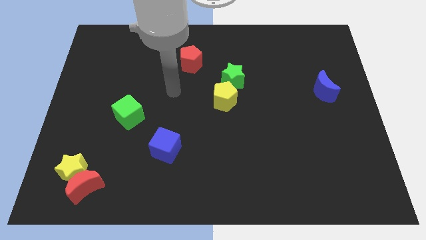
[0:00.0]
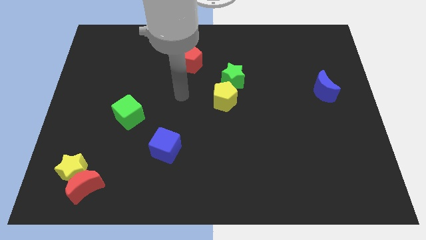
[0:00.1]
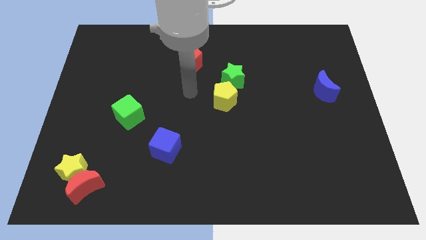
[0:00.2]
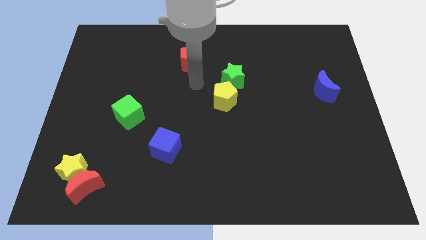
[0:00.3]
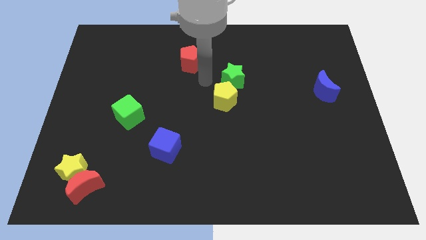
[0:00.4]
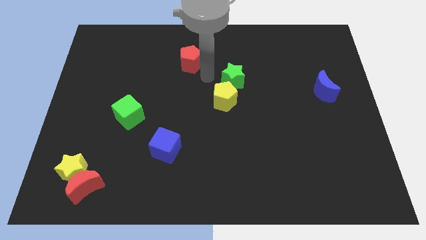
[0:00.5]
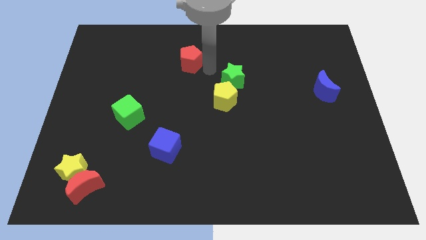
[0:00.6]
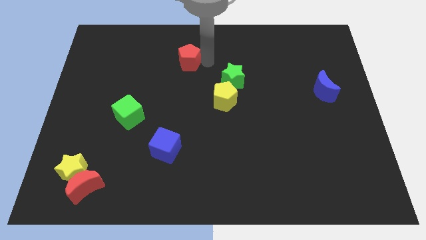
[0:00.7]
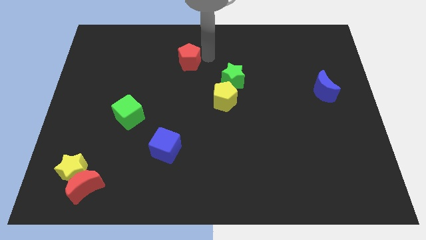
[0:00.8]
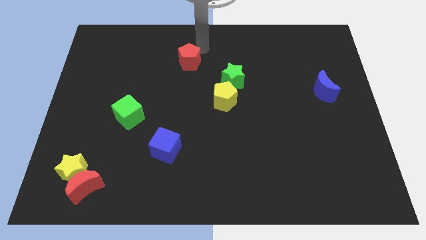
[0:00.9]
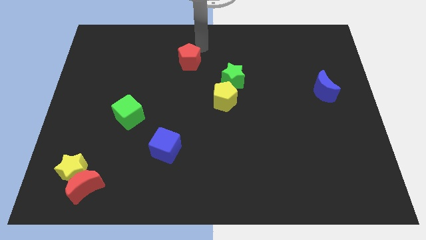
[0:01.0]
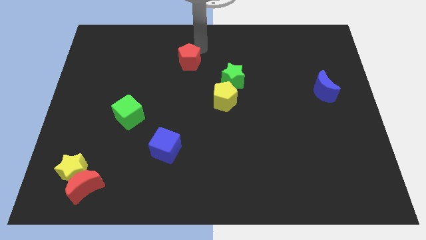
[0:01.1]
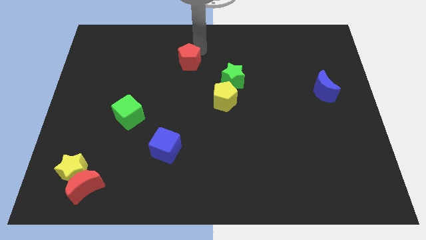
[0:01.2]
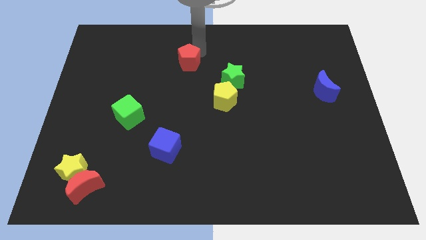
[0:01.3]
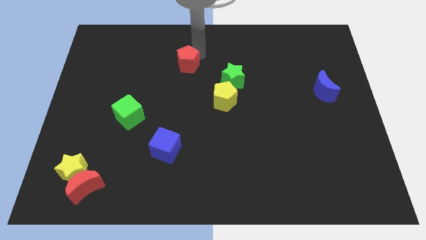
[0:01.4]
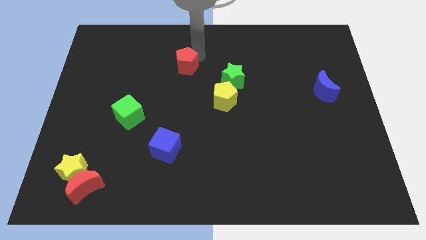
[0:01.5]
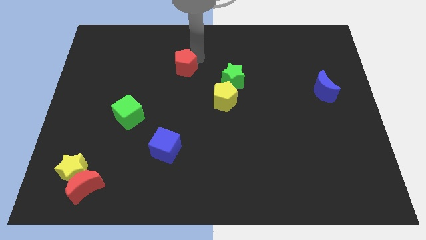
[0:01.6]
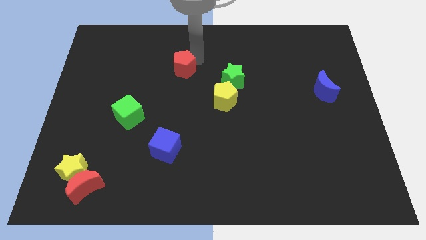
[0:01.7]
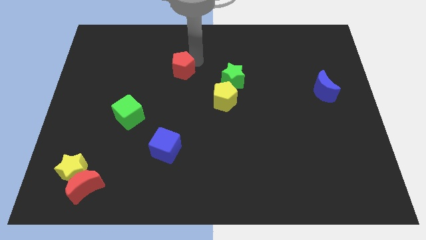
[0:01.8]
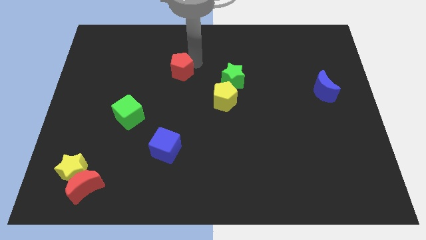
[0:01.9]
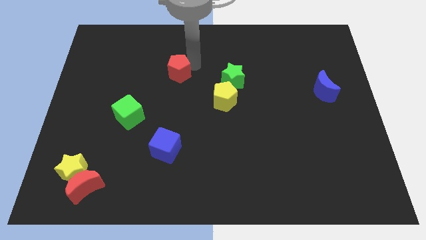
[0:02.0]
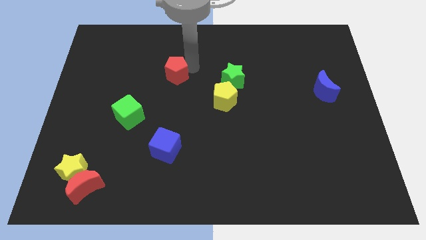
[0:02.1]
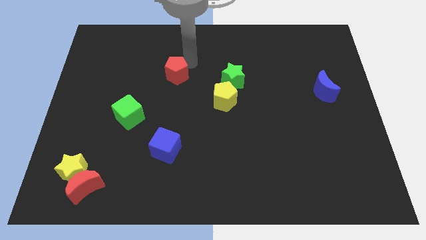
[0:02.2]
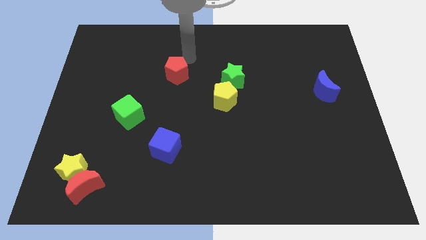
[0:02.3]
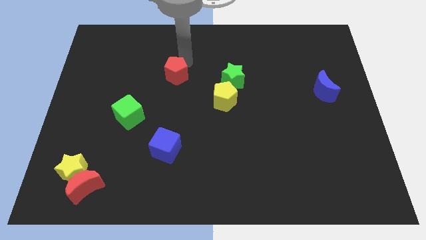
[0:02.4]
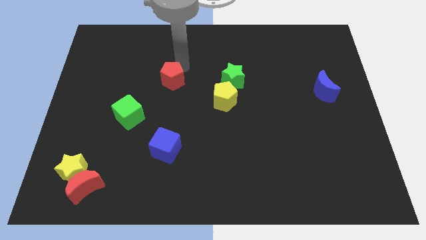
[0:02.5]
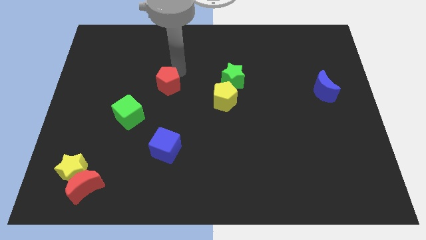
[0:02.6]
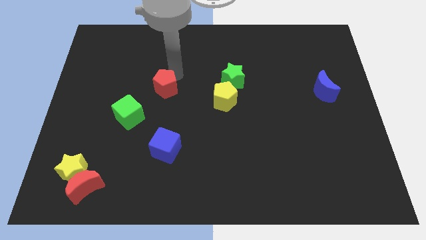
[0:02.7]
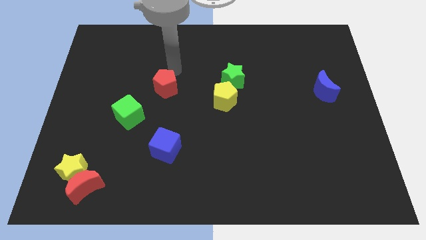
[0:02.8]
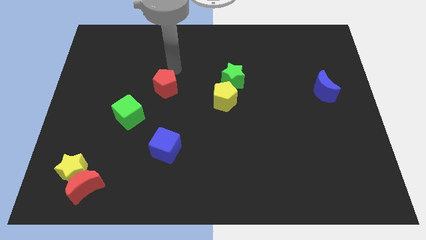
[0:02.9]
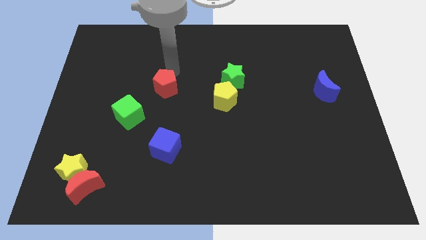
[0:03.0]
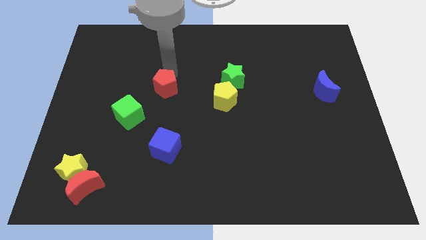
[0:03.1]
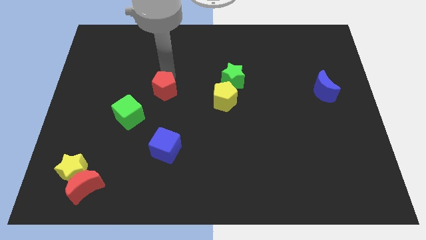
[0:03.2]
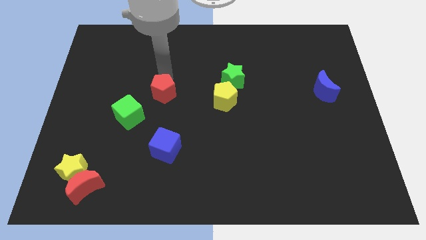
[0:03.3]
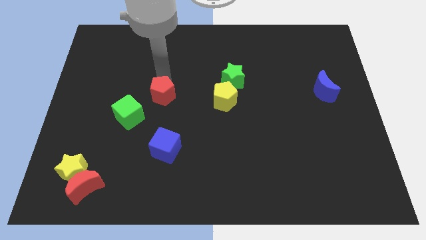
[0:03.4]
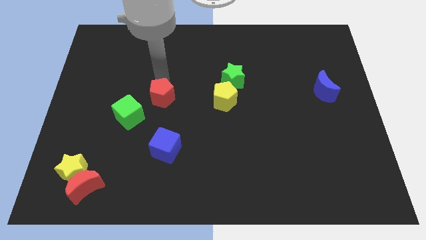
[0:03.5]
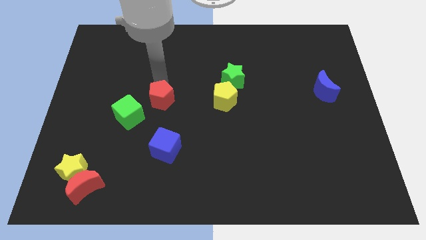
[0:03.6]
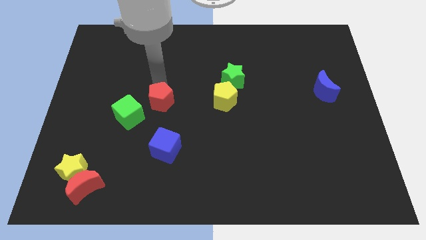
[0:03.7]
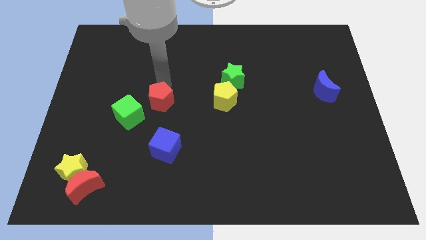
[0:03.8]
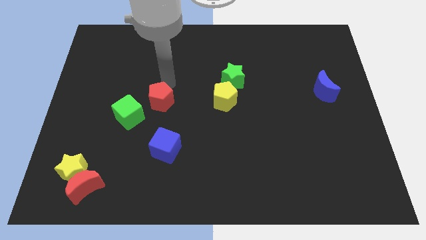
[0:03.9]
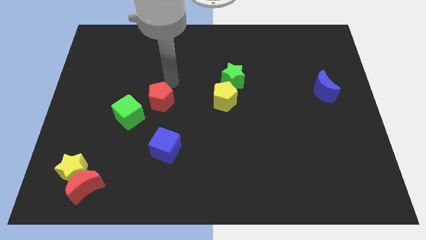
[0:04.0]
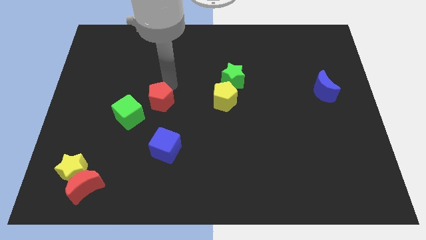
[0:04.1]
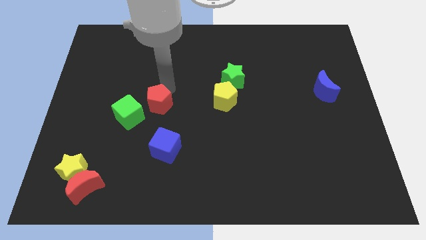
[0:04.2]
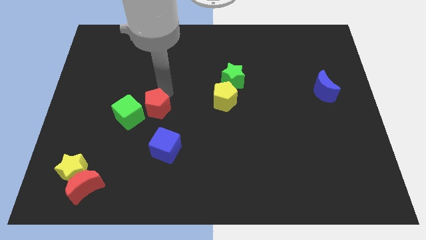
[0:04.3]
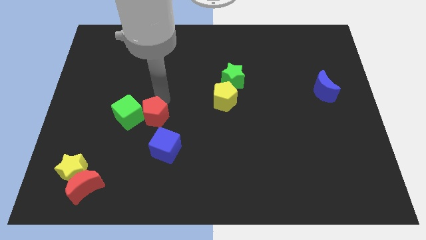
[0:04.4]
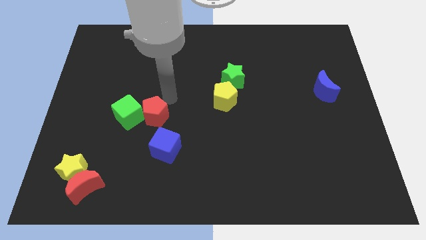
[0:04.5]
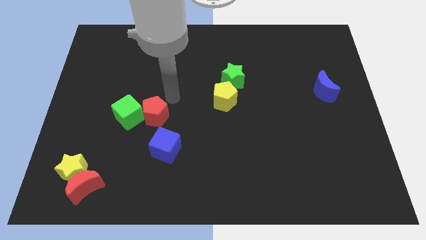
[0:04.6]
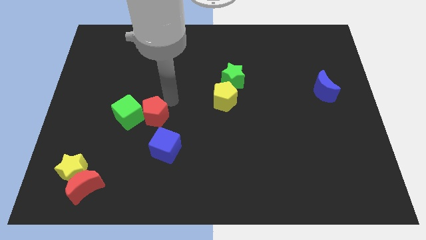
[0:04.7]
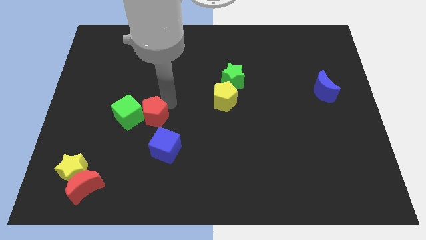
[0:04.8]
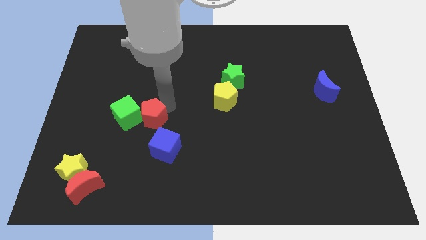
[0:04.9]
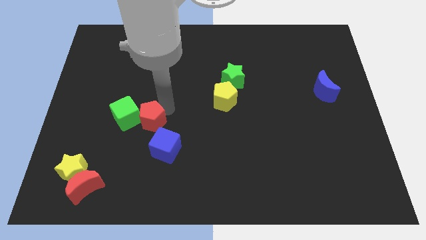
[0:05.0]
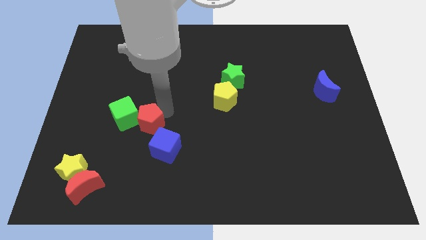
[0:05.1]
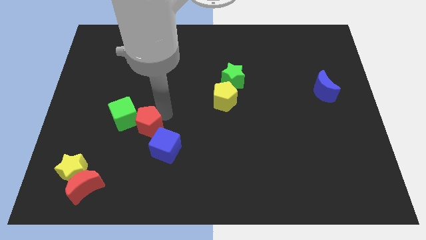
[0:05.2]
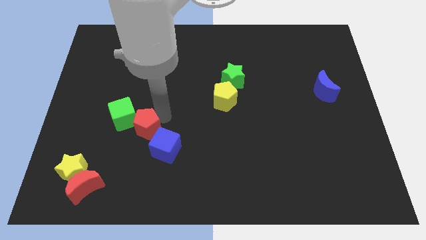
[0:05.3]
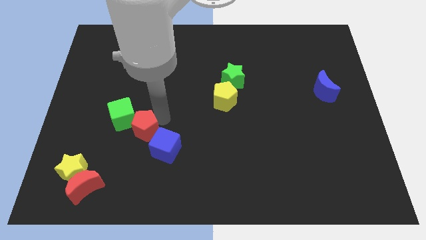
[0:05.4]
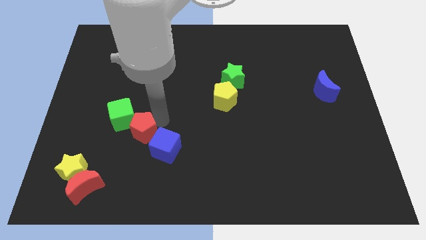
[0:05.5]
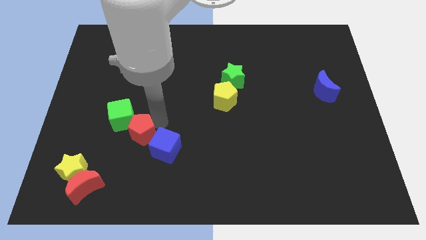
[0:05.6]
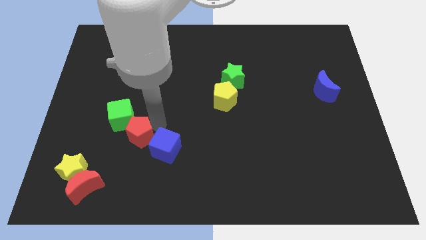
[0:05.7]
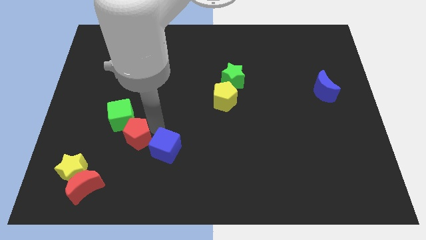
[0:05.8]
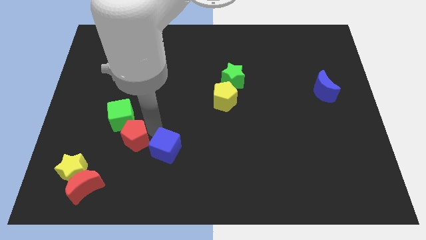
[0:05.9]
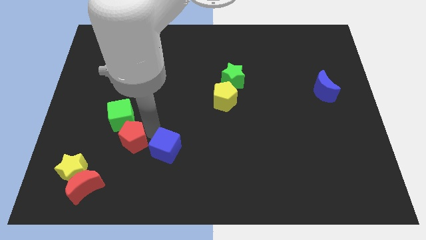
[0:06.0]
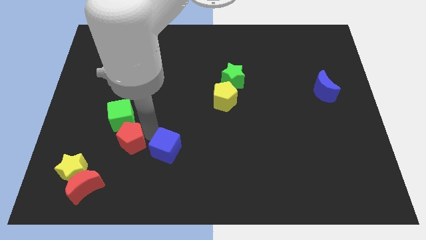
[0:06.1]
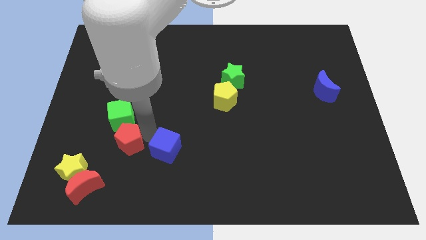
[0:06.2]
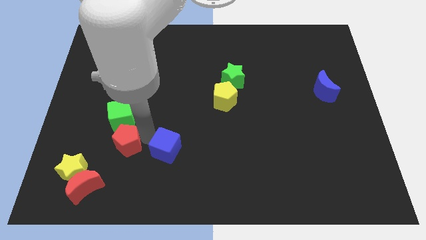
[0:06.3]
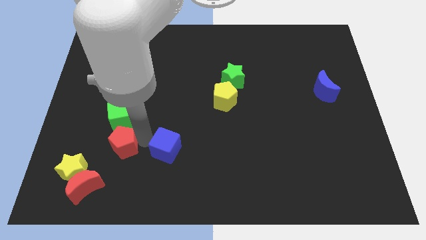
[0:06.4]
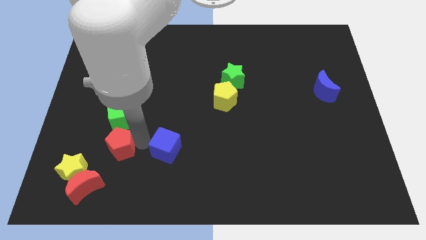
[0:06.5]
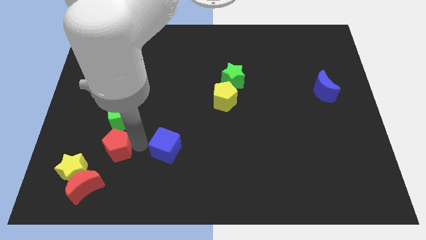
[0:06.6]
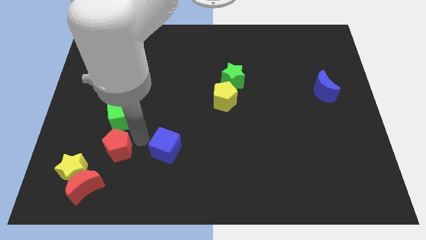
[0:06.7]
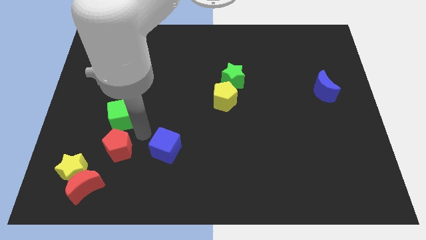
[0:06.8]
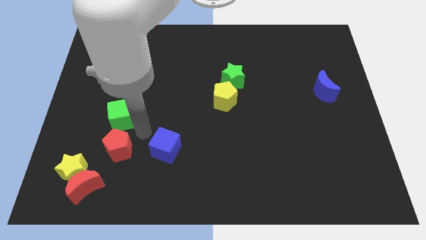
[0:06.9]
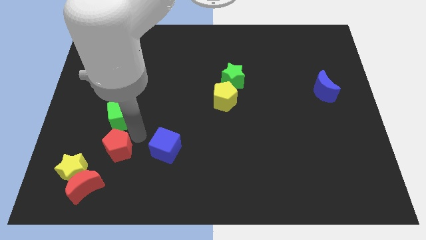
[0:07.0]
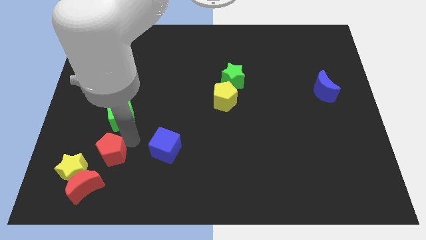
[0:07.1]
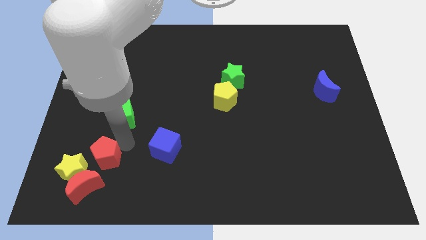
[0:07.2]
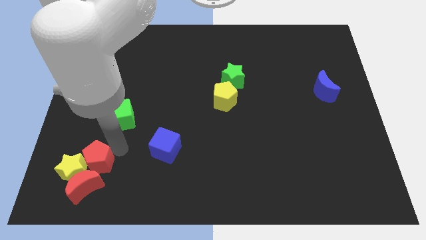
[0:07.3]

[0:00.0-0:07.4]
slide the red pentagon close to the yellow star

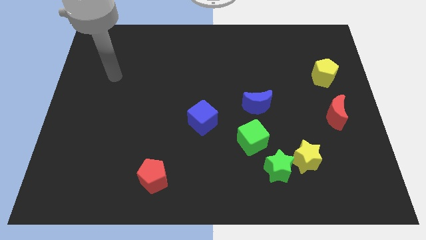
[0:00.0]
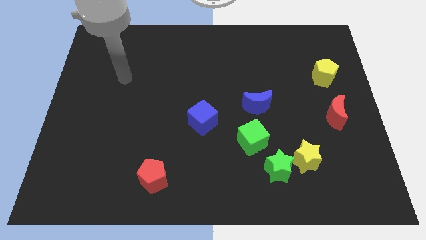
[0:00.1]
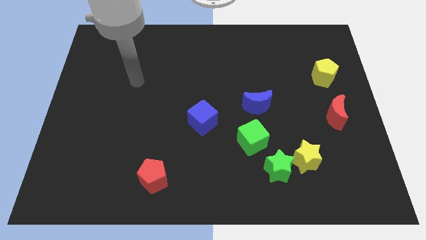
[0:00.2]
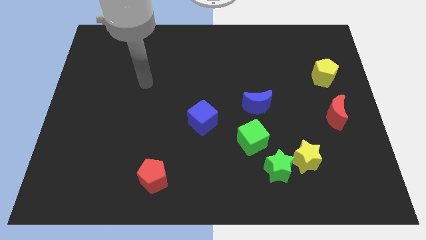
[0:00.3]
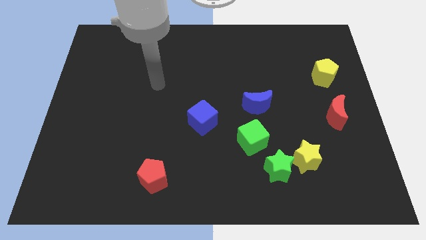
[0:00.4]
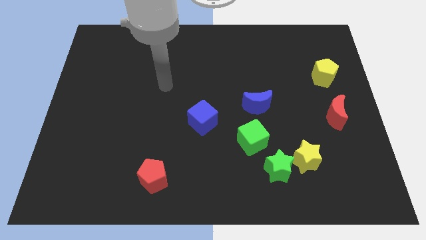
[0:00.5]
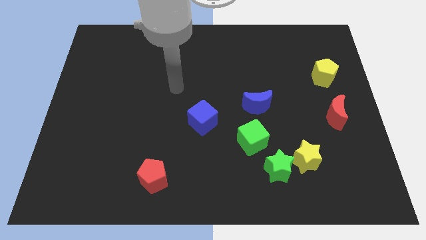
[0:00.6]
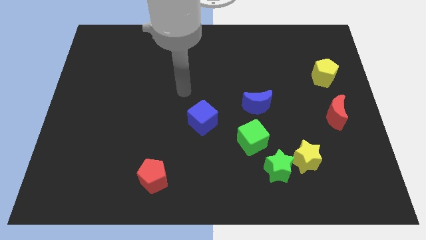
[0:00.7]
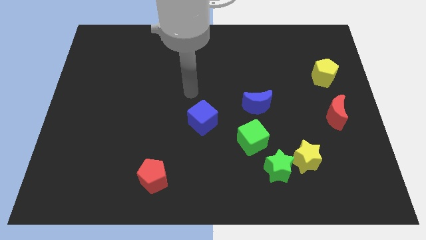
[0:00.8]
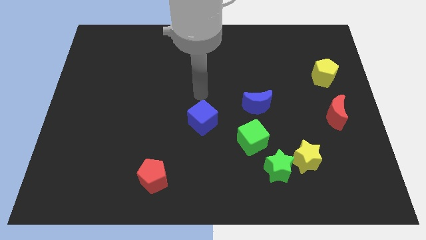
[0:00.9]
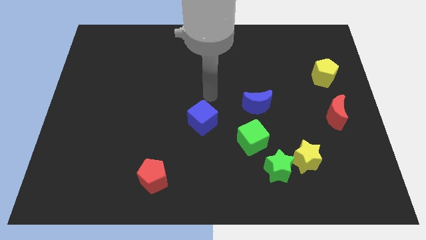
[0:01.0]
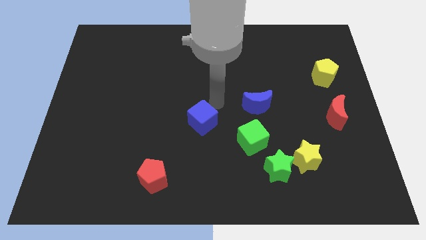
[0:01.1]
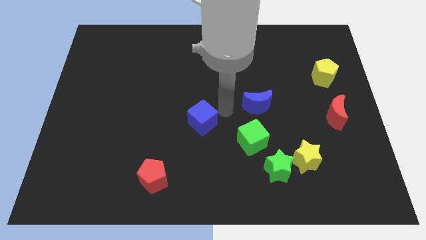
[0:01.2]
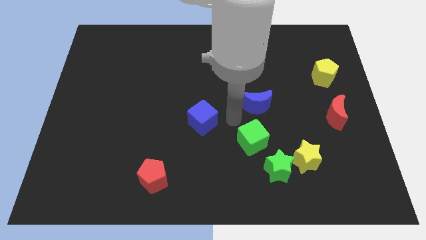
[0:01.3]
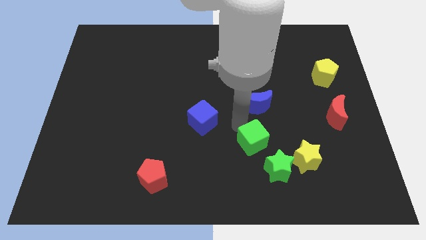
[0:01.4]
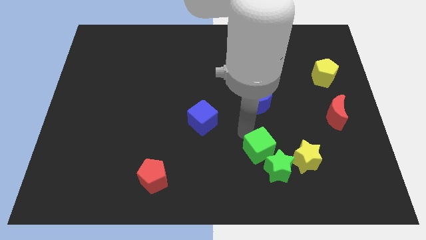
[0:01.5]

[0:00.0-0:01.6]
put the green cube next to the green star
